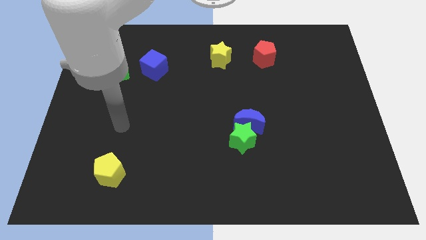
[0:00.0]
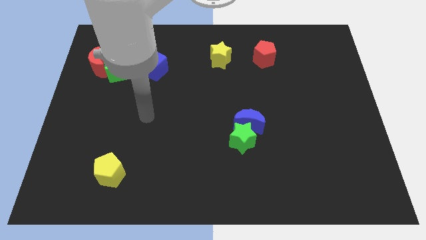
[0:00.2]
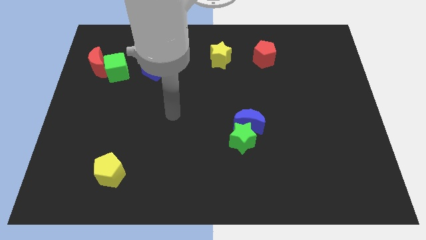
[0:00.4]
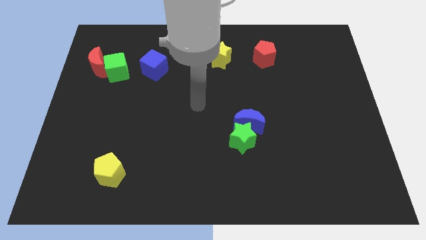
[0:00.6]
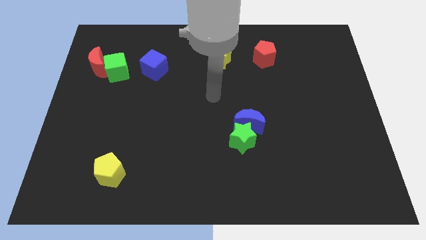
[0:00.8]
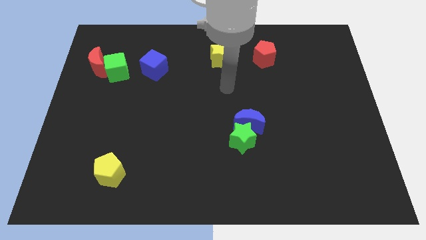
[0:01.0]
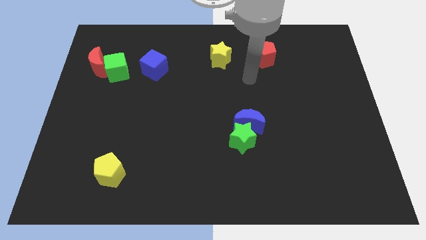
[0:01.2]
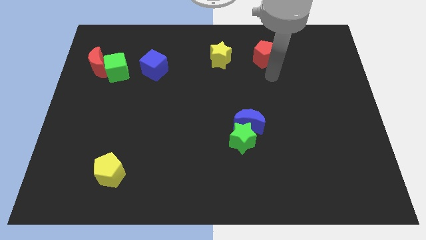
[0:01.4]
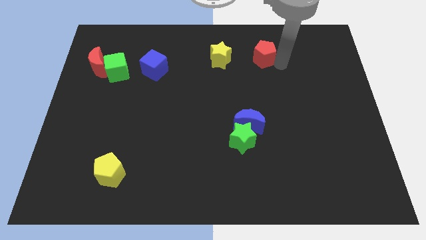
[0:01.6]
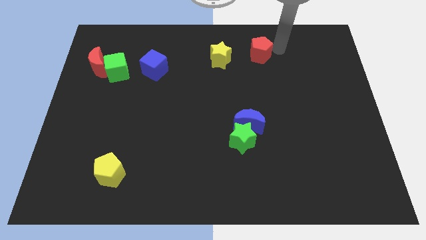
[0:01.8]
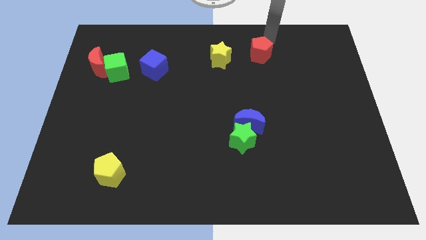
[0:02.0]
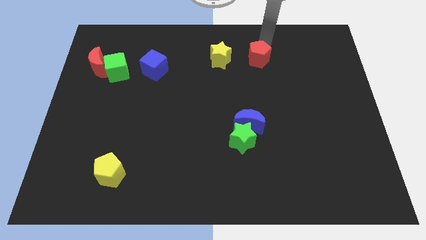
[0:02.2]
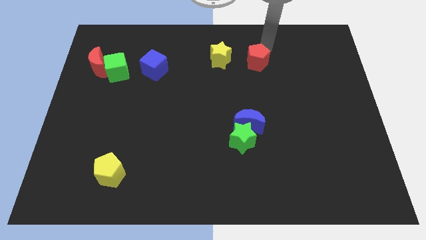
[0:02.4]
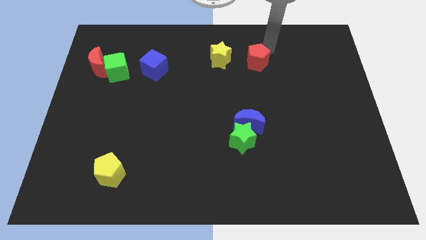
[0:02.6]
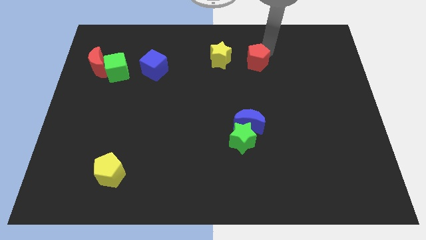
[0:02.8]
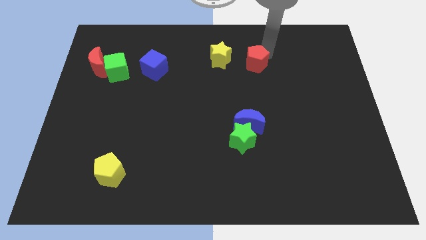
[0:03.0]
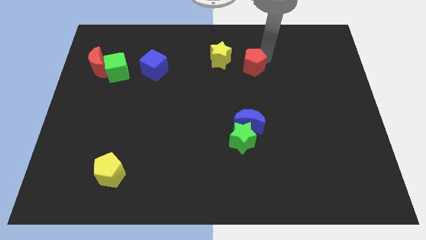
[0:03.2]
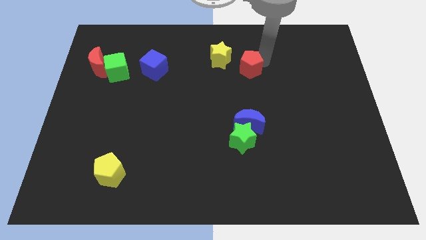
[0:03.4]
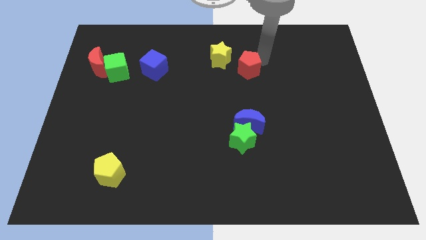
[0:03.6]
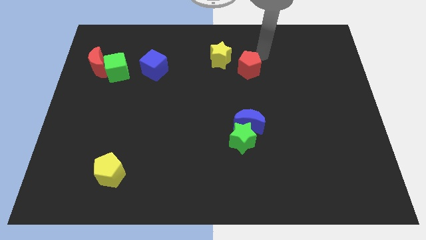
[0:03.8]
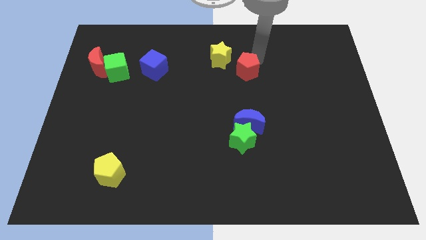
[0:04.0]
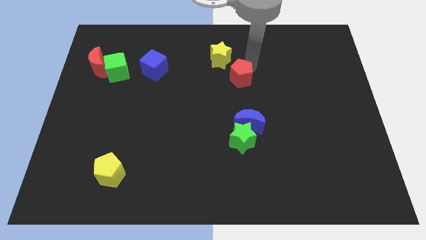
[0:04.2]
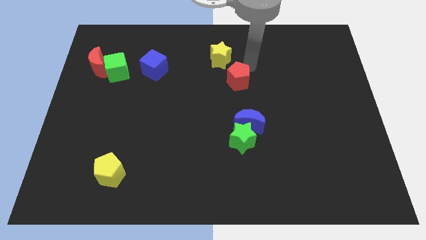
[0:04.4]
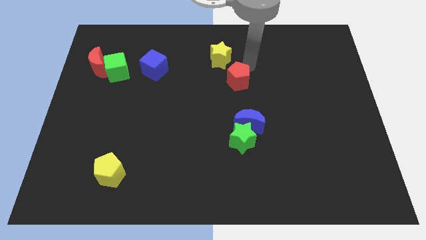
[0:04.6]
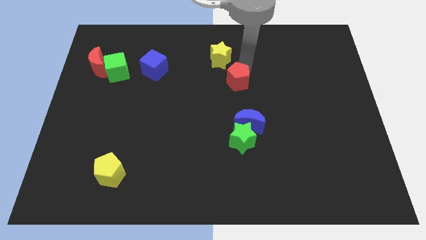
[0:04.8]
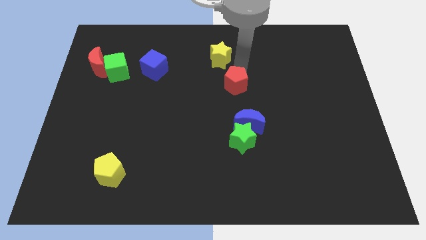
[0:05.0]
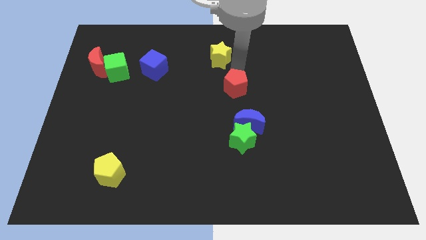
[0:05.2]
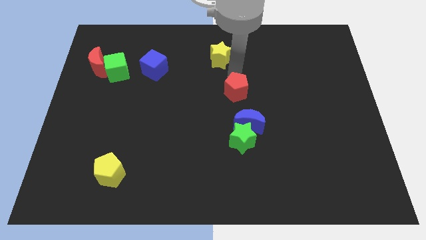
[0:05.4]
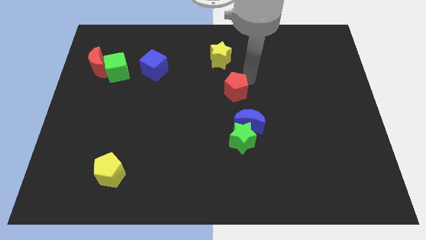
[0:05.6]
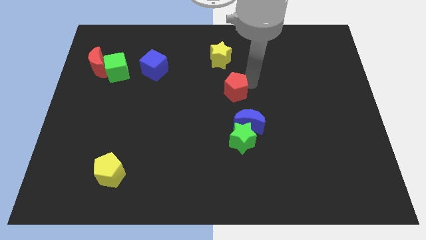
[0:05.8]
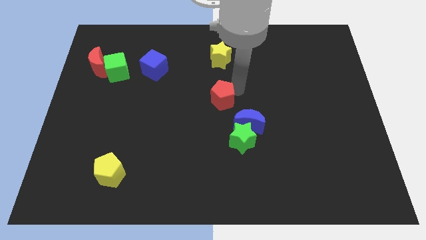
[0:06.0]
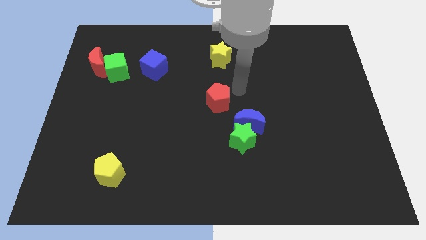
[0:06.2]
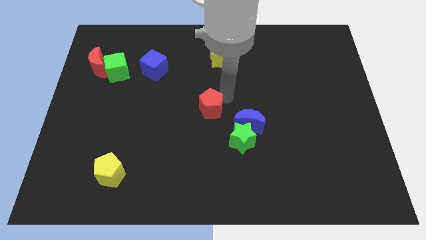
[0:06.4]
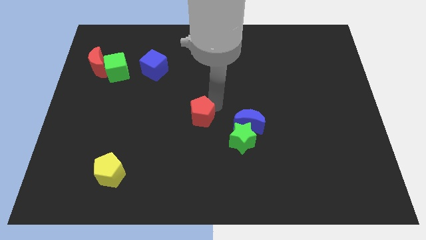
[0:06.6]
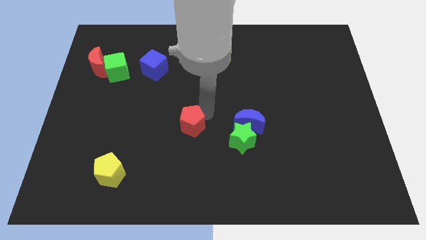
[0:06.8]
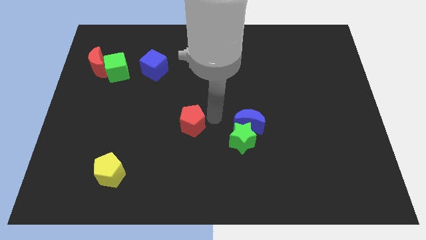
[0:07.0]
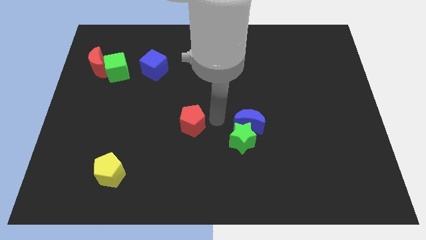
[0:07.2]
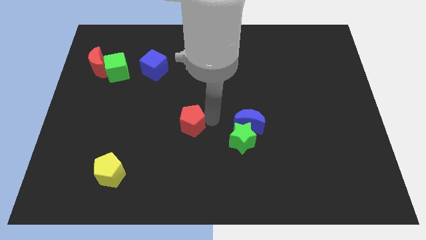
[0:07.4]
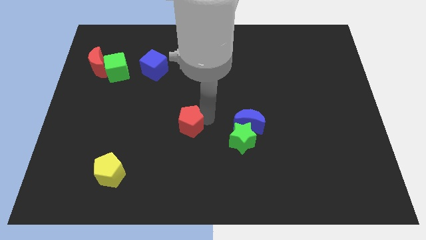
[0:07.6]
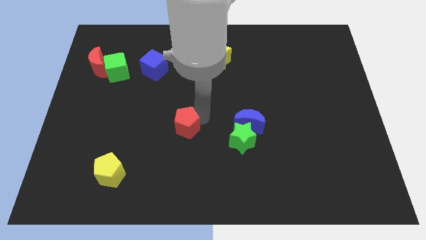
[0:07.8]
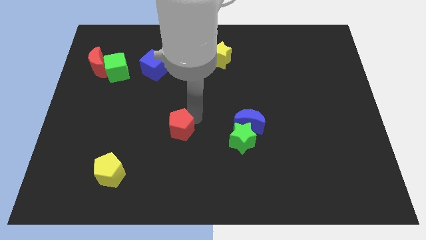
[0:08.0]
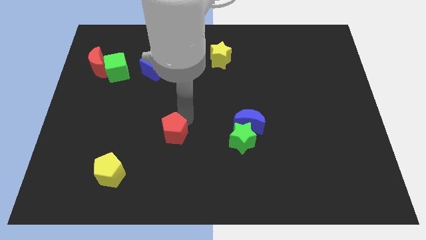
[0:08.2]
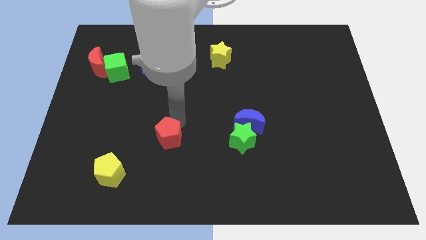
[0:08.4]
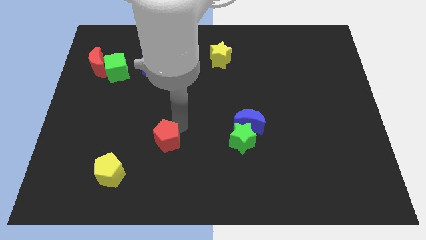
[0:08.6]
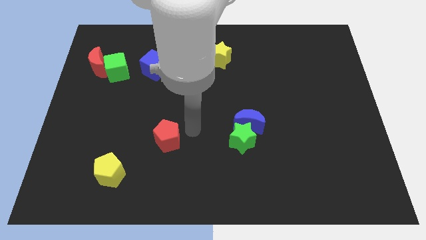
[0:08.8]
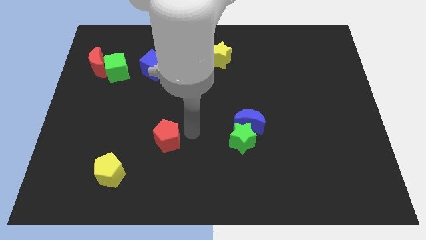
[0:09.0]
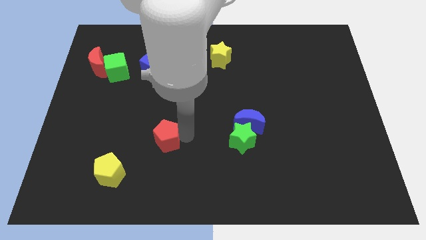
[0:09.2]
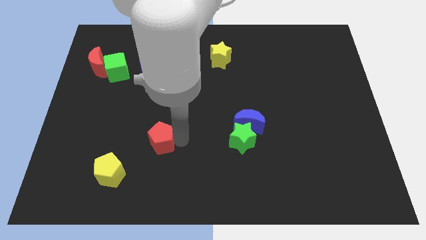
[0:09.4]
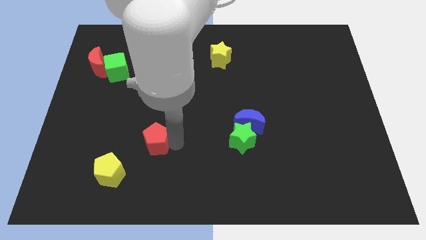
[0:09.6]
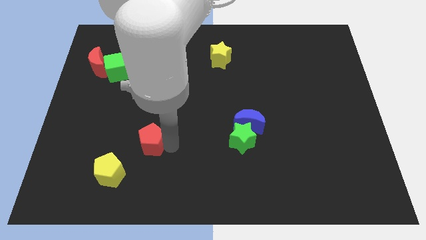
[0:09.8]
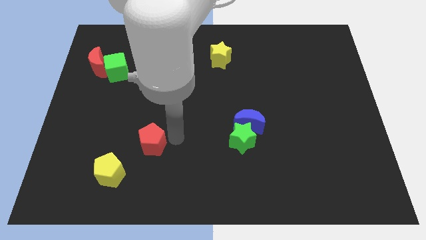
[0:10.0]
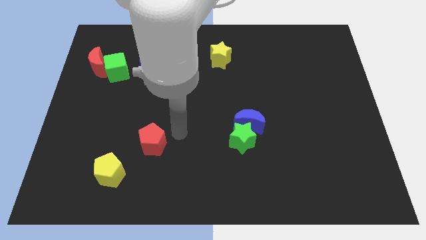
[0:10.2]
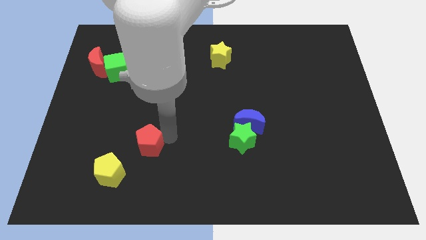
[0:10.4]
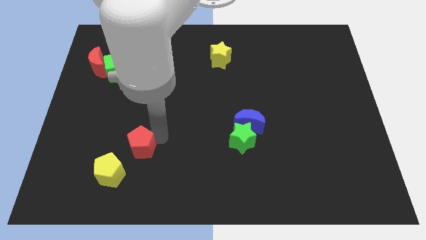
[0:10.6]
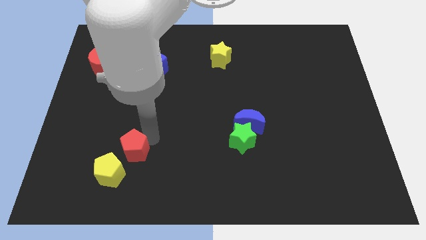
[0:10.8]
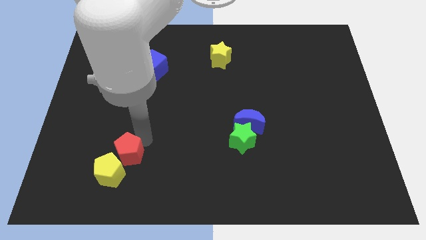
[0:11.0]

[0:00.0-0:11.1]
move the red pentagon close to the yellow pentagon

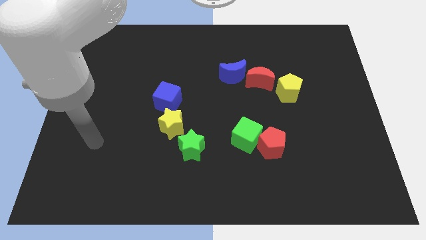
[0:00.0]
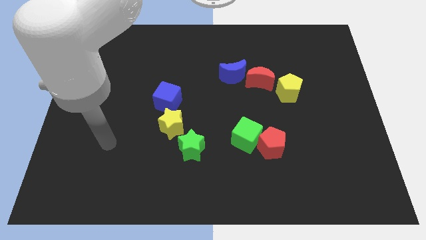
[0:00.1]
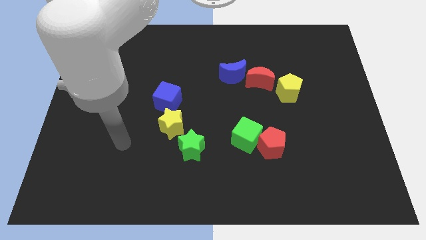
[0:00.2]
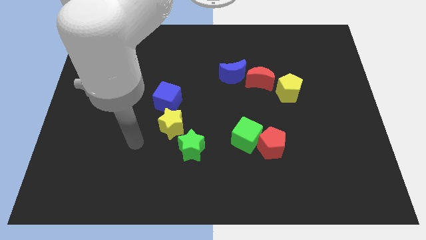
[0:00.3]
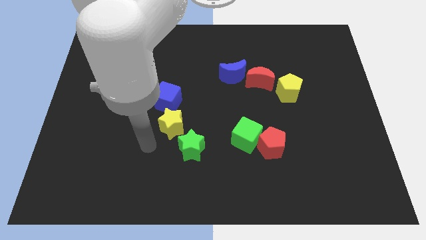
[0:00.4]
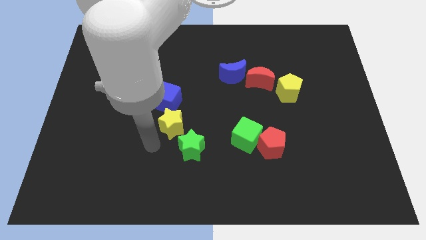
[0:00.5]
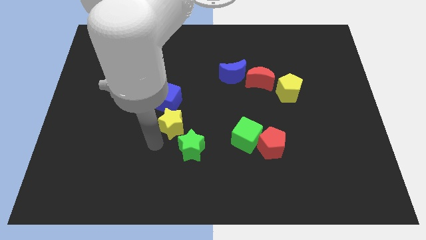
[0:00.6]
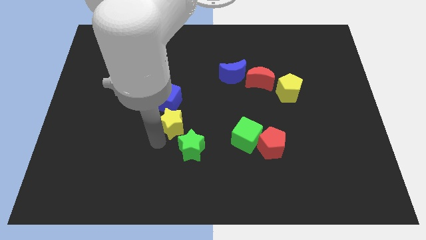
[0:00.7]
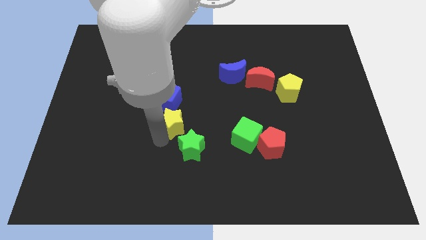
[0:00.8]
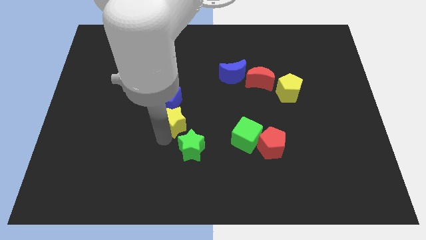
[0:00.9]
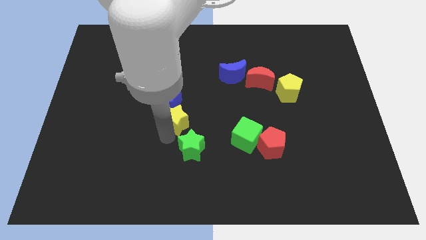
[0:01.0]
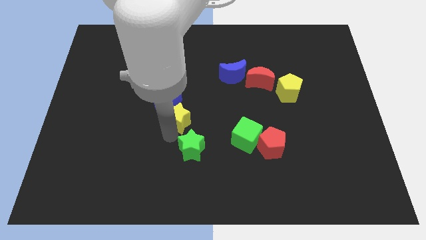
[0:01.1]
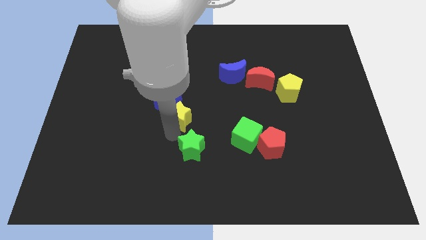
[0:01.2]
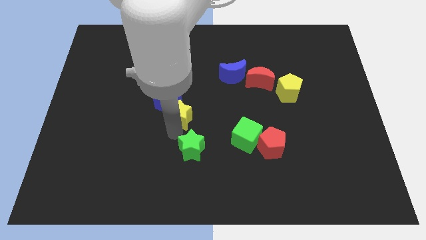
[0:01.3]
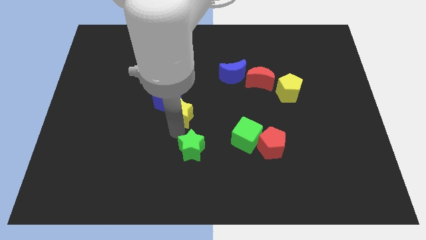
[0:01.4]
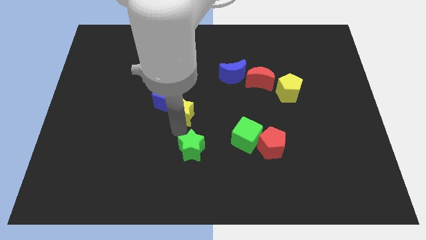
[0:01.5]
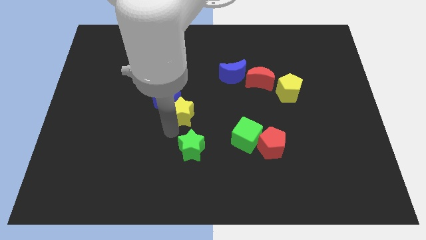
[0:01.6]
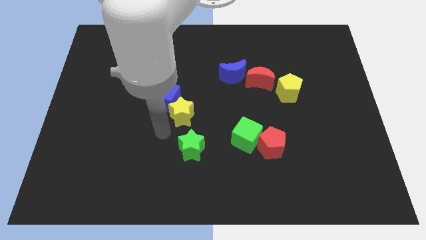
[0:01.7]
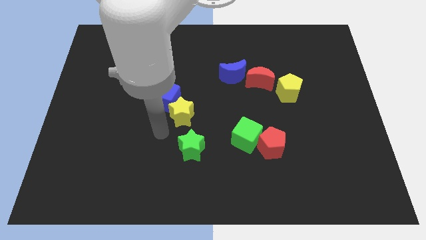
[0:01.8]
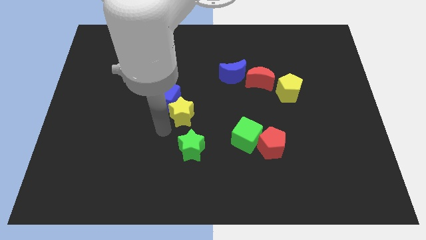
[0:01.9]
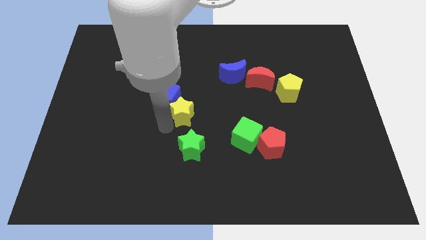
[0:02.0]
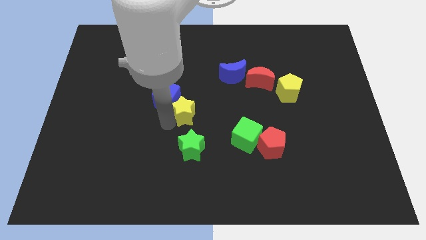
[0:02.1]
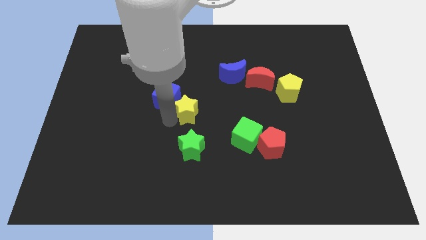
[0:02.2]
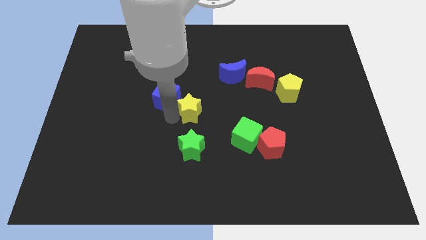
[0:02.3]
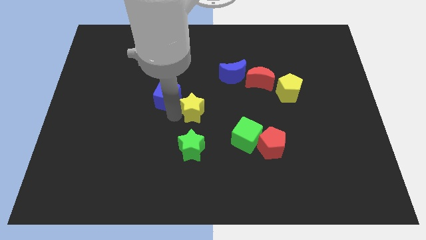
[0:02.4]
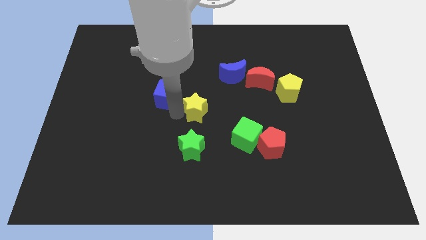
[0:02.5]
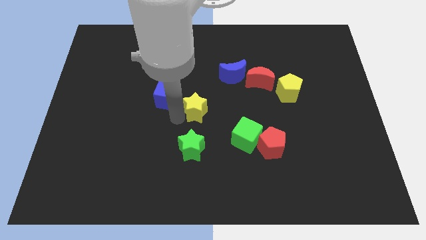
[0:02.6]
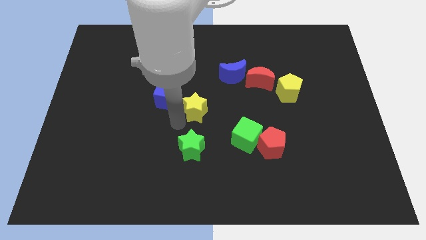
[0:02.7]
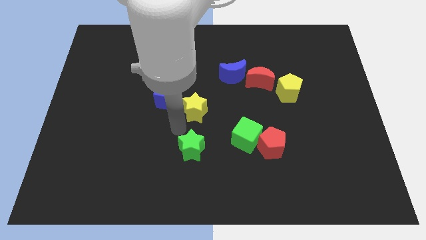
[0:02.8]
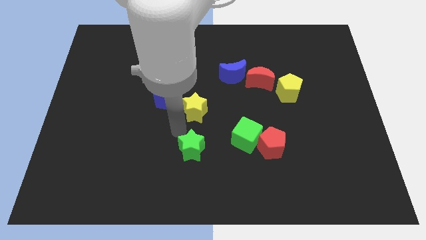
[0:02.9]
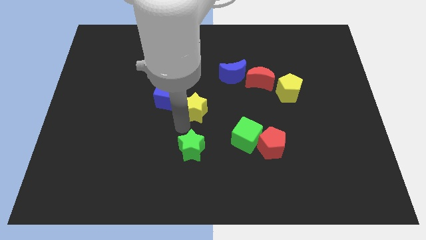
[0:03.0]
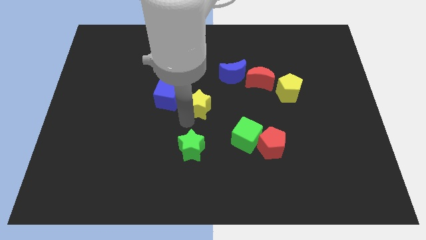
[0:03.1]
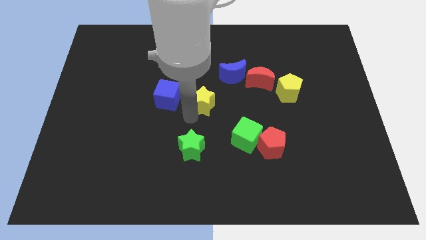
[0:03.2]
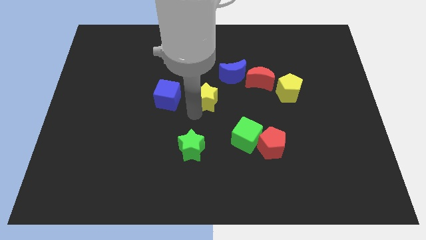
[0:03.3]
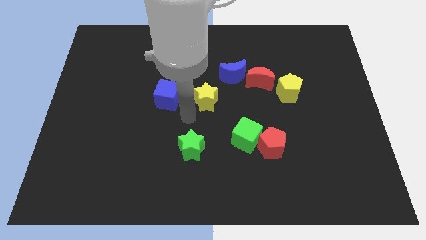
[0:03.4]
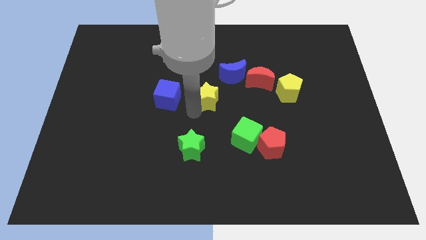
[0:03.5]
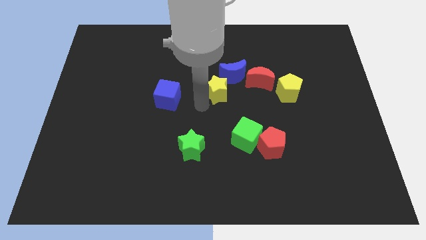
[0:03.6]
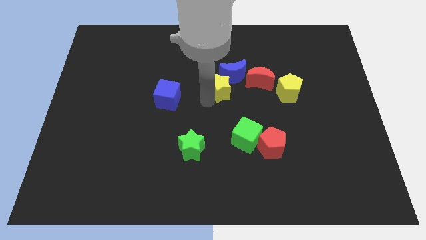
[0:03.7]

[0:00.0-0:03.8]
move the yellow star to the blue moon
